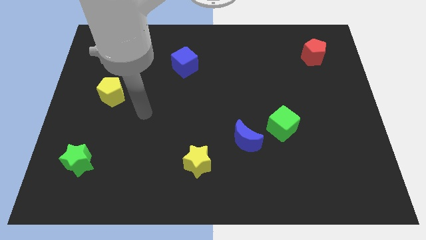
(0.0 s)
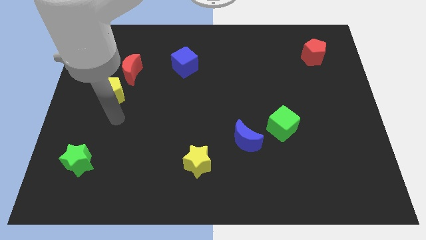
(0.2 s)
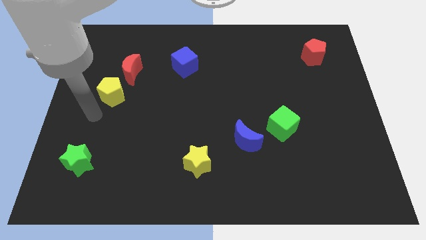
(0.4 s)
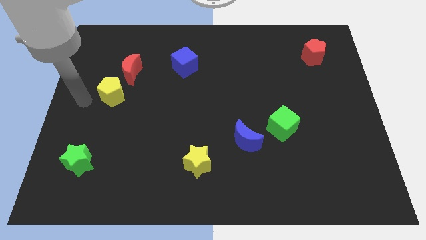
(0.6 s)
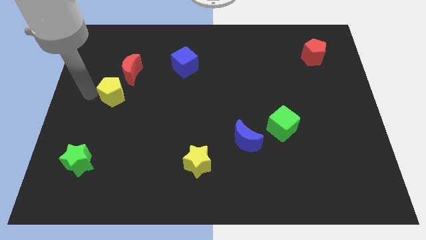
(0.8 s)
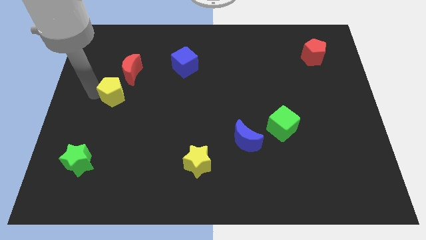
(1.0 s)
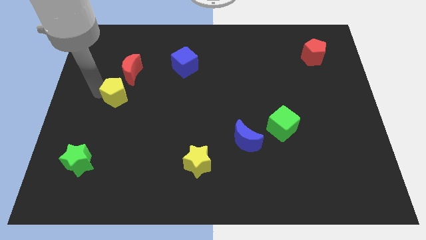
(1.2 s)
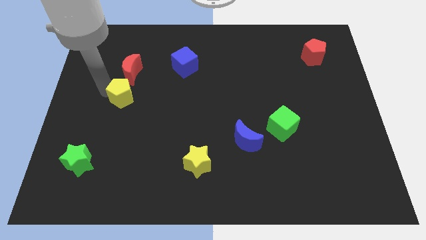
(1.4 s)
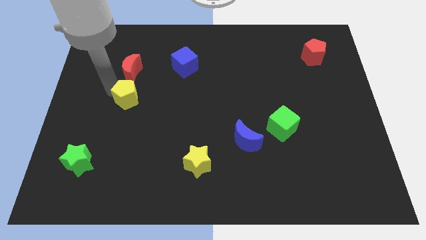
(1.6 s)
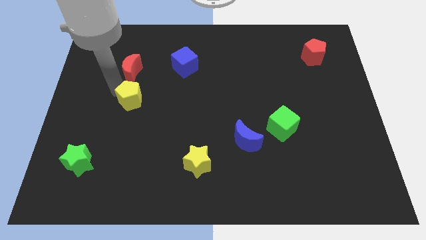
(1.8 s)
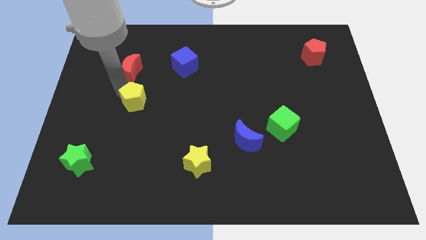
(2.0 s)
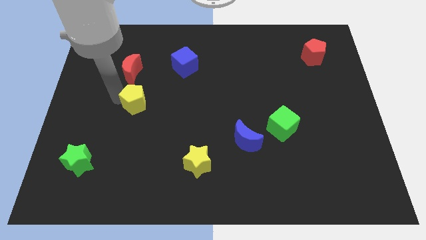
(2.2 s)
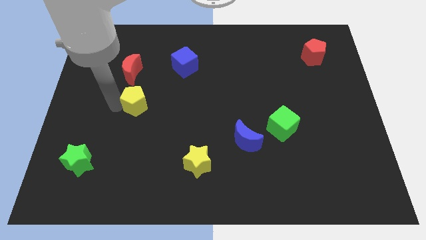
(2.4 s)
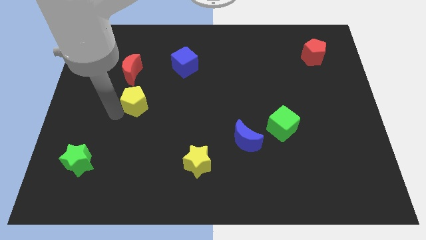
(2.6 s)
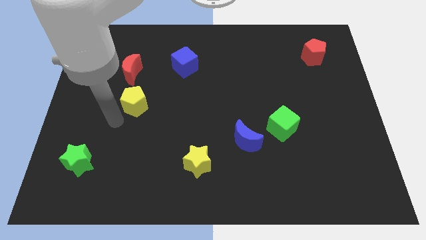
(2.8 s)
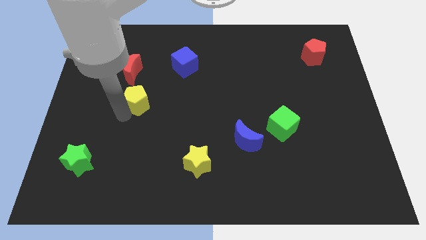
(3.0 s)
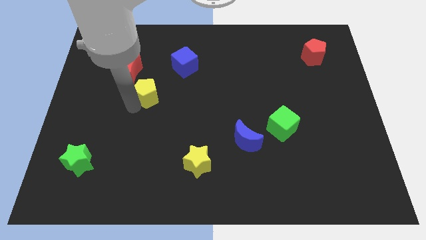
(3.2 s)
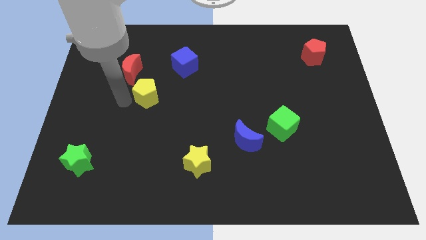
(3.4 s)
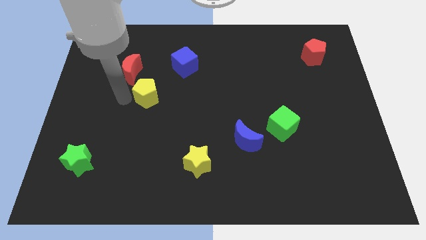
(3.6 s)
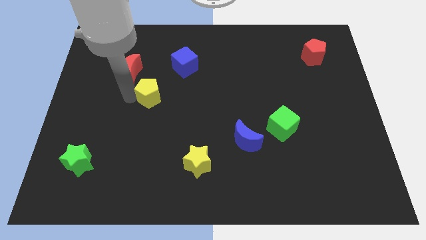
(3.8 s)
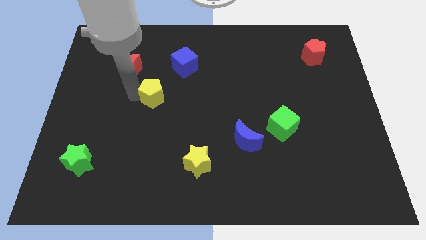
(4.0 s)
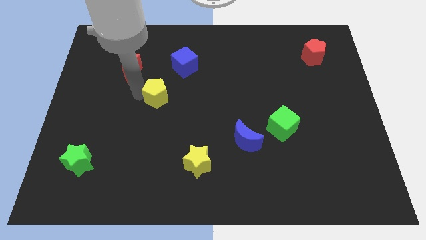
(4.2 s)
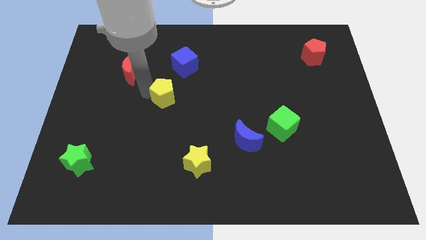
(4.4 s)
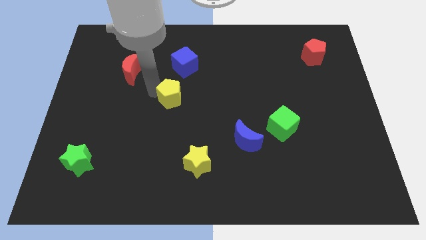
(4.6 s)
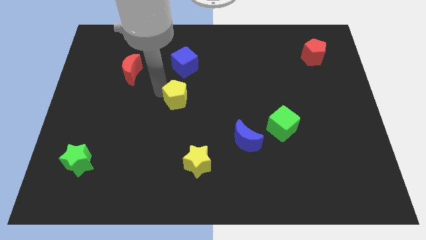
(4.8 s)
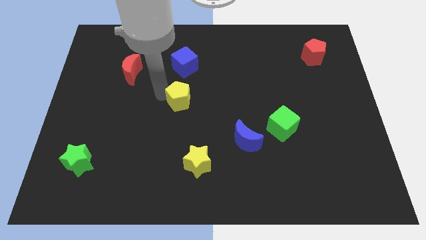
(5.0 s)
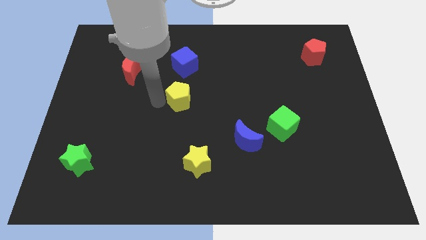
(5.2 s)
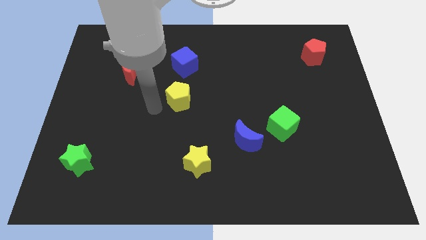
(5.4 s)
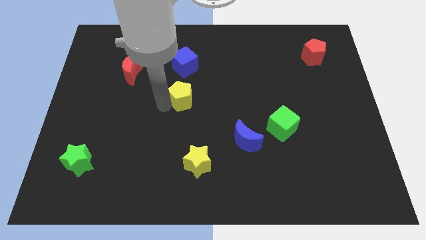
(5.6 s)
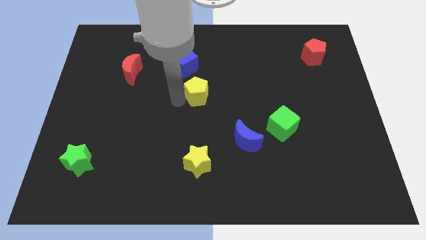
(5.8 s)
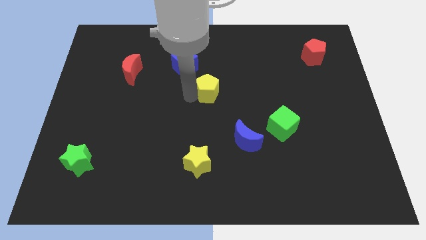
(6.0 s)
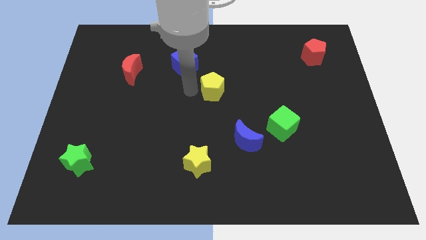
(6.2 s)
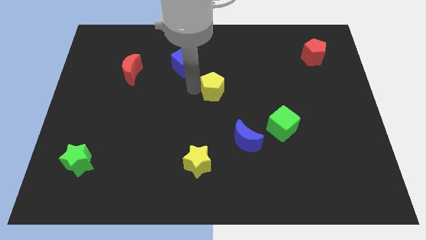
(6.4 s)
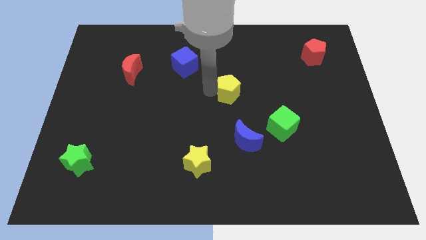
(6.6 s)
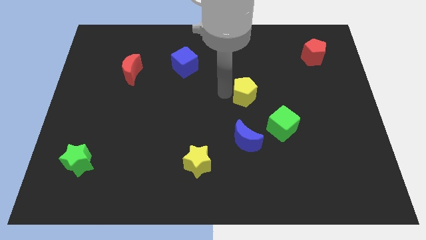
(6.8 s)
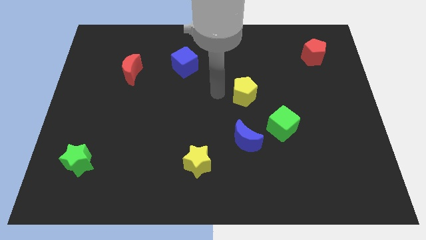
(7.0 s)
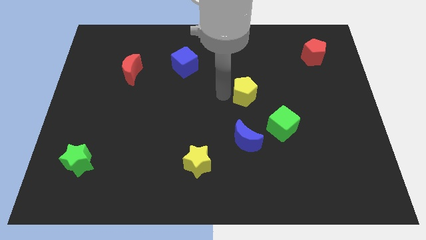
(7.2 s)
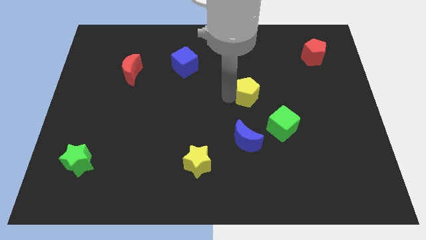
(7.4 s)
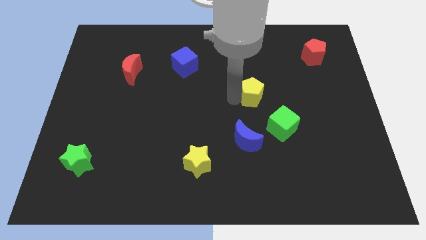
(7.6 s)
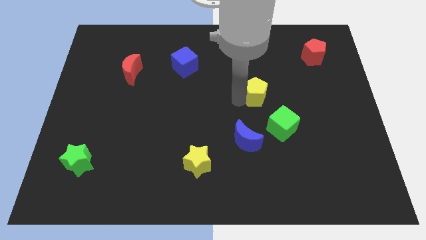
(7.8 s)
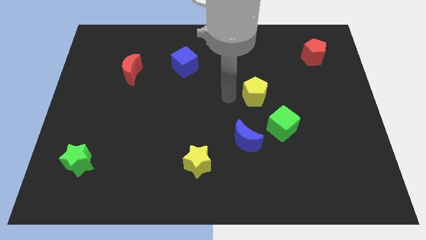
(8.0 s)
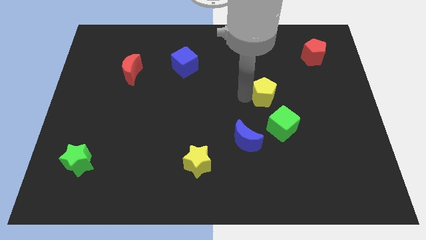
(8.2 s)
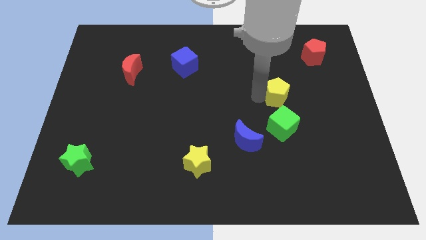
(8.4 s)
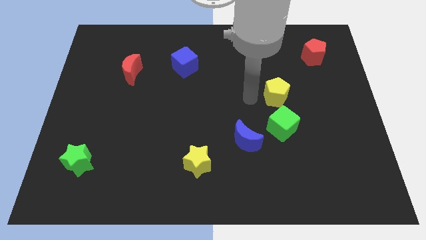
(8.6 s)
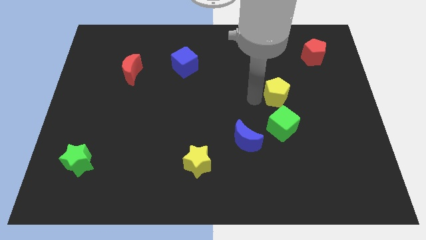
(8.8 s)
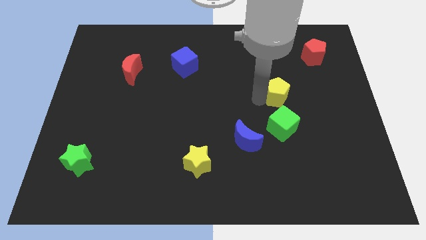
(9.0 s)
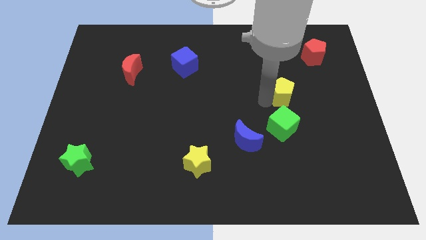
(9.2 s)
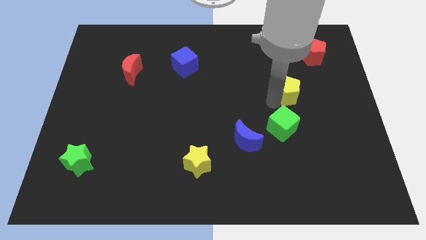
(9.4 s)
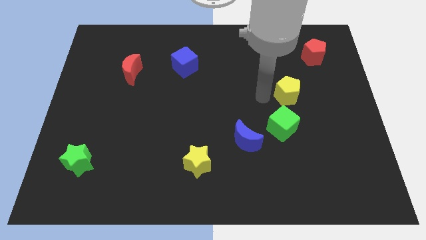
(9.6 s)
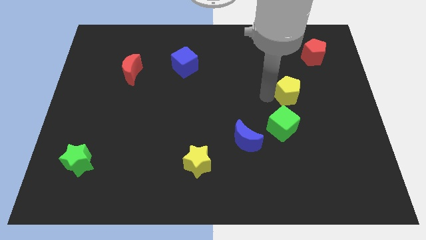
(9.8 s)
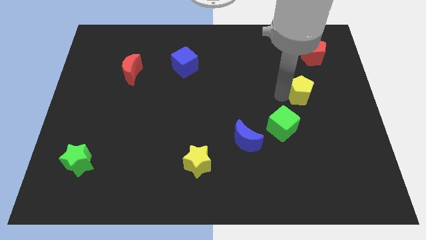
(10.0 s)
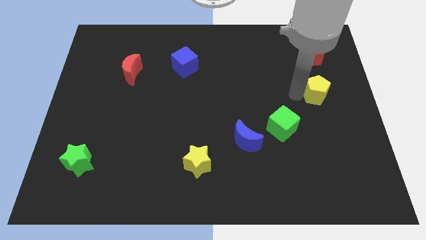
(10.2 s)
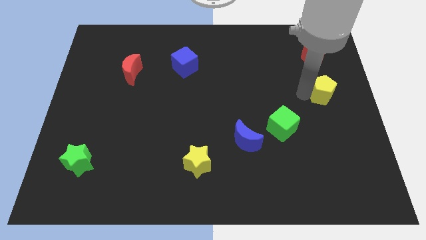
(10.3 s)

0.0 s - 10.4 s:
move the yellow pentagon to the right side

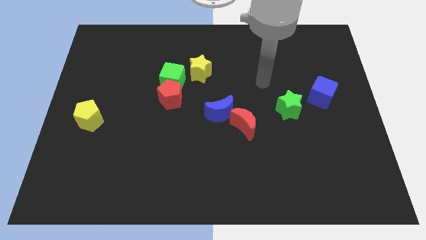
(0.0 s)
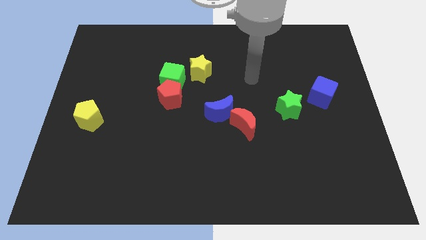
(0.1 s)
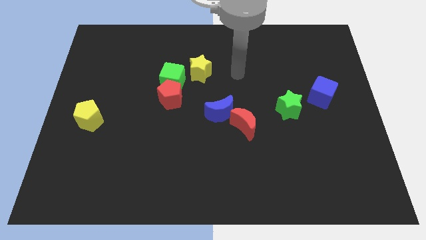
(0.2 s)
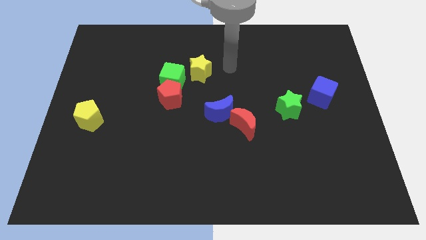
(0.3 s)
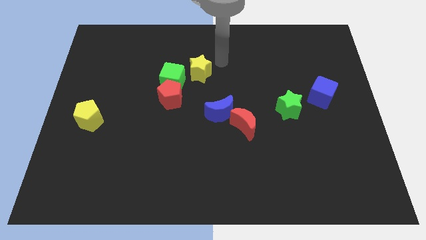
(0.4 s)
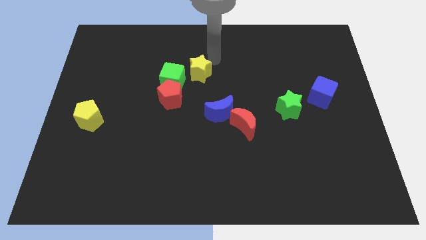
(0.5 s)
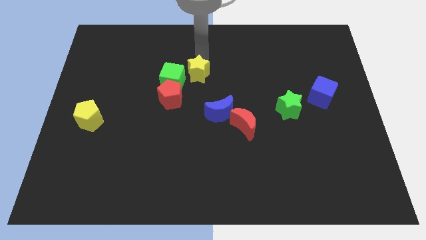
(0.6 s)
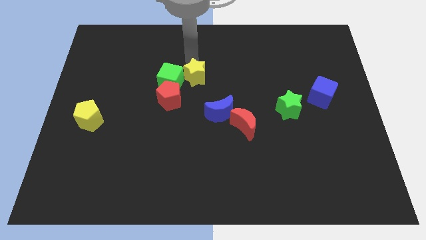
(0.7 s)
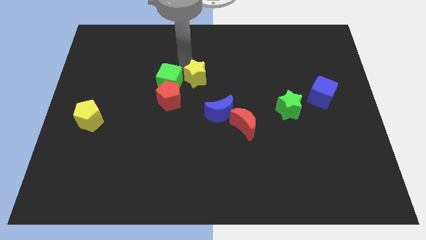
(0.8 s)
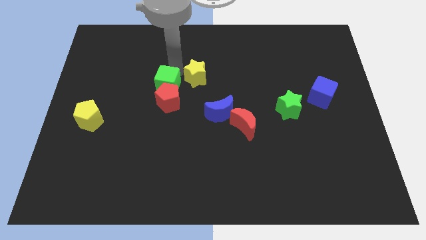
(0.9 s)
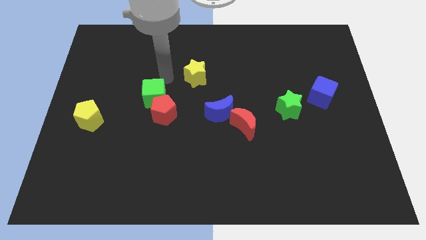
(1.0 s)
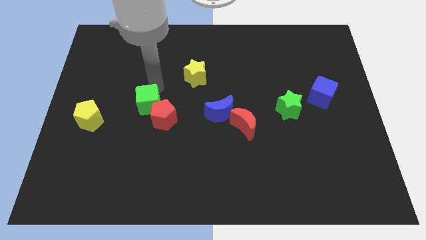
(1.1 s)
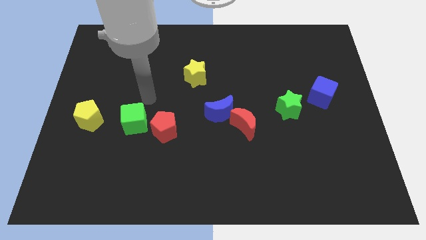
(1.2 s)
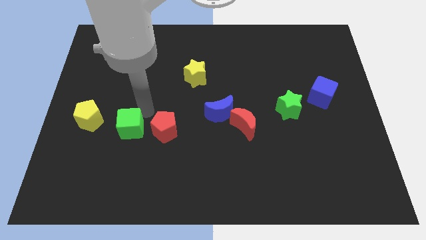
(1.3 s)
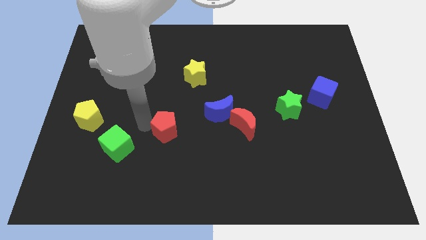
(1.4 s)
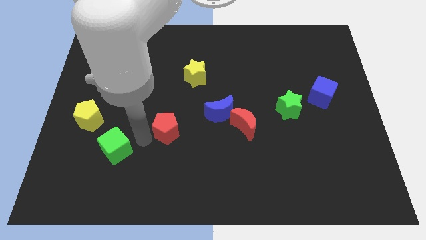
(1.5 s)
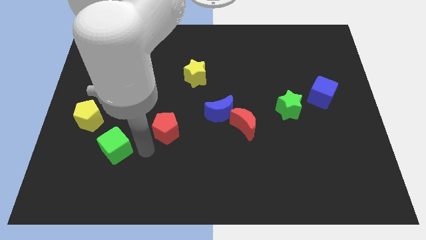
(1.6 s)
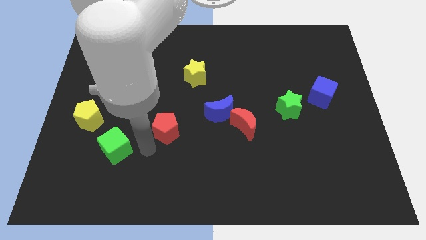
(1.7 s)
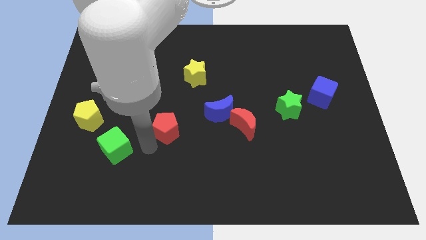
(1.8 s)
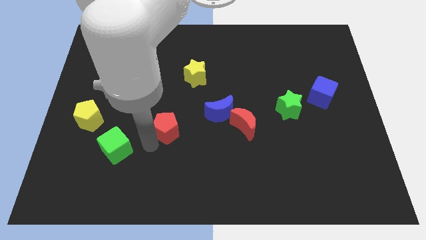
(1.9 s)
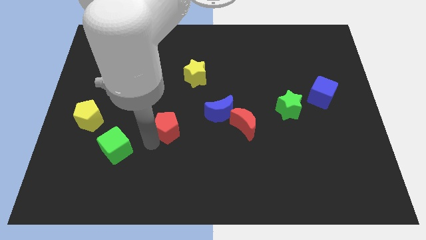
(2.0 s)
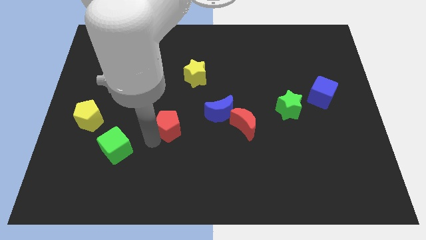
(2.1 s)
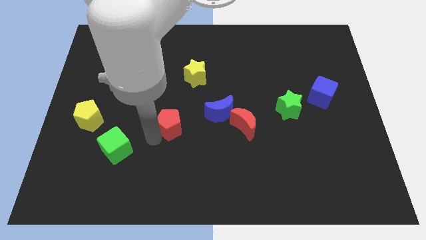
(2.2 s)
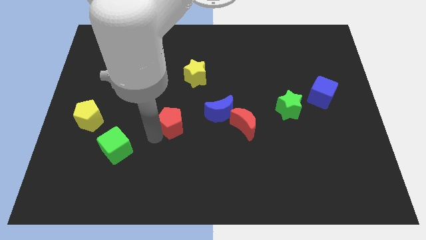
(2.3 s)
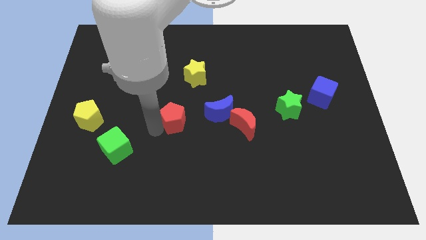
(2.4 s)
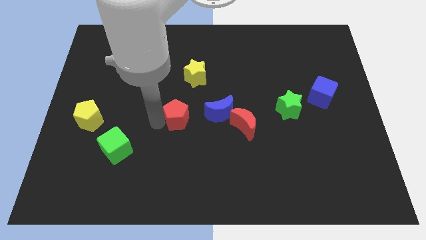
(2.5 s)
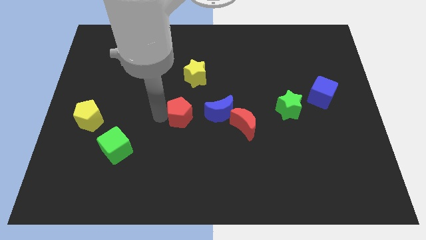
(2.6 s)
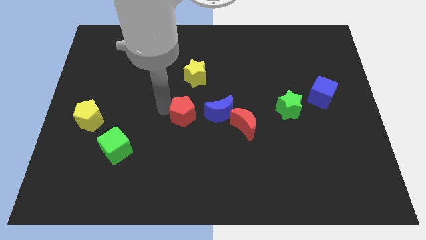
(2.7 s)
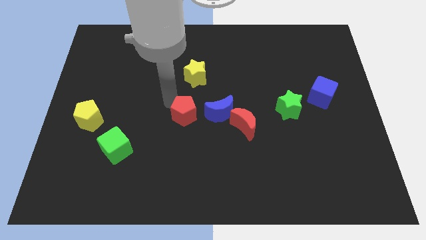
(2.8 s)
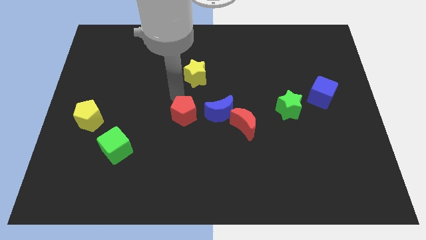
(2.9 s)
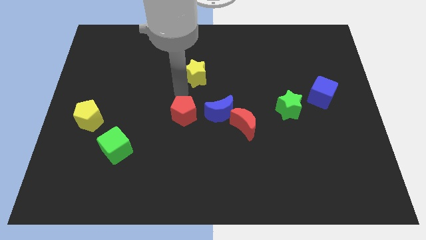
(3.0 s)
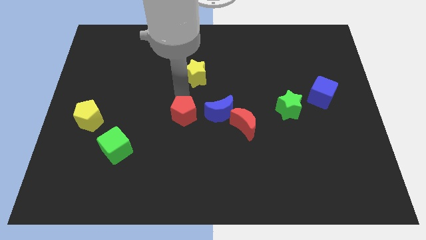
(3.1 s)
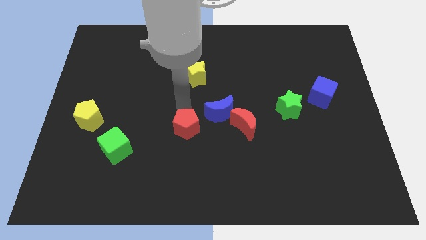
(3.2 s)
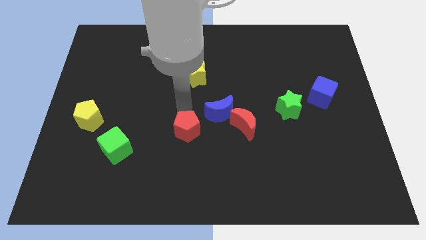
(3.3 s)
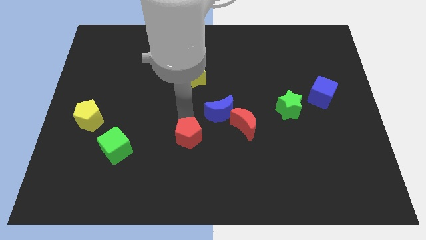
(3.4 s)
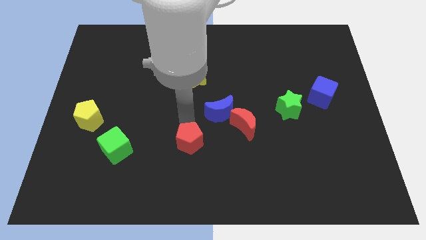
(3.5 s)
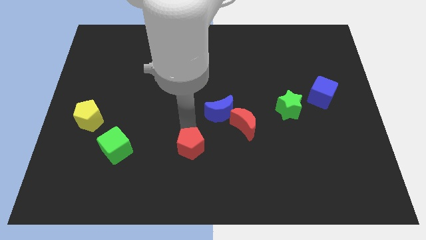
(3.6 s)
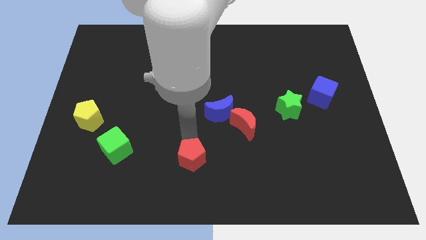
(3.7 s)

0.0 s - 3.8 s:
put the red pentagon to the bottom side
